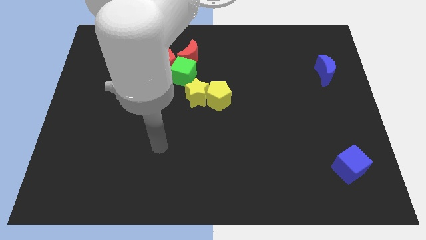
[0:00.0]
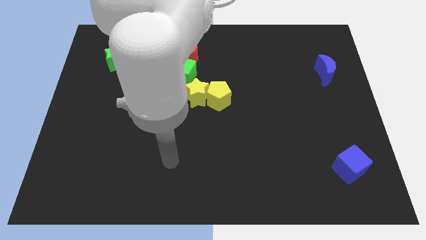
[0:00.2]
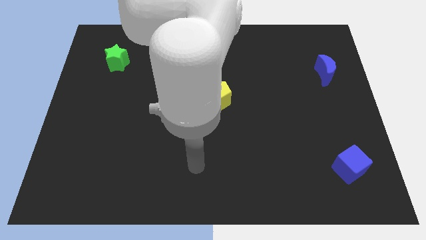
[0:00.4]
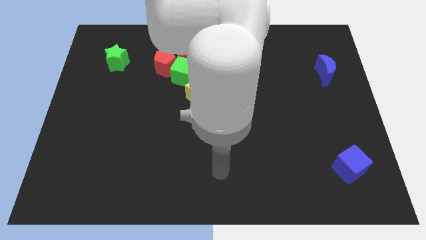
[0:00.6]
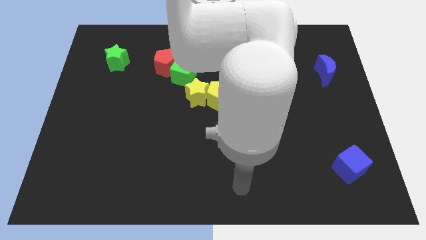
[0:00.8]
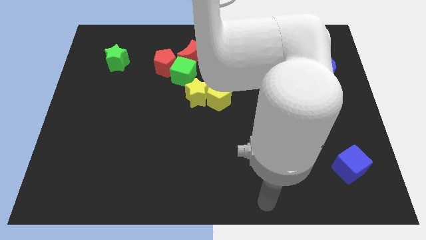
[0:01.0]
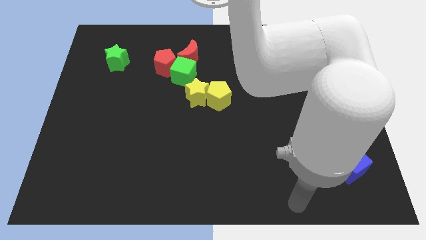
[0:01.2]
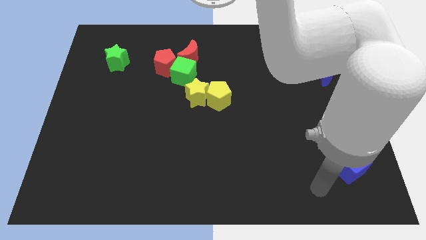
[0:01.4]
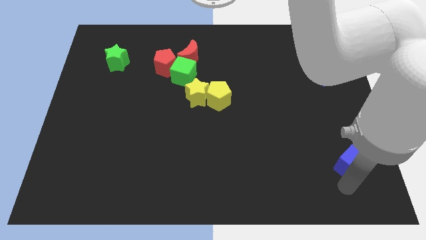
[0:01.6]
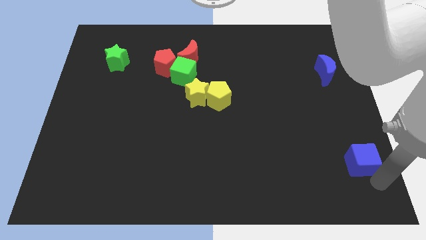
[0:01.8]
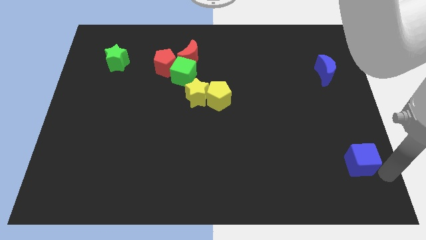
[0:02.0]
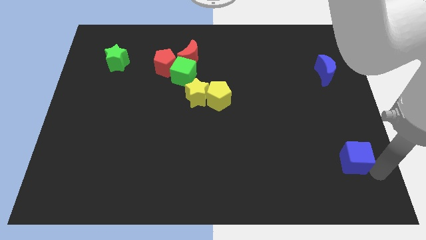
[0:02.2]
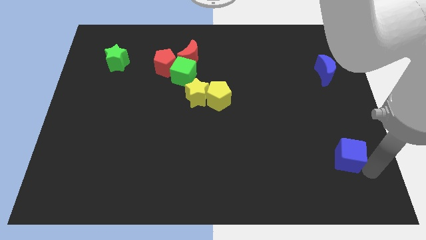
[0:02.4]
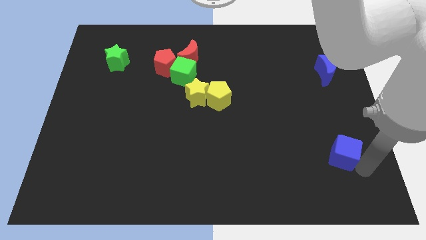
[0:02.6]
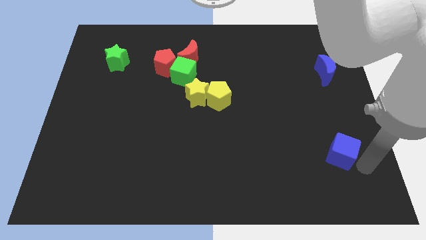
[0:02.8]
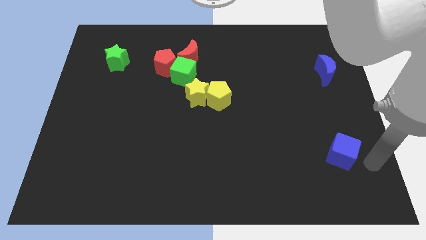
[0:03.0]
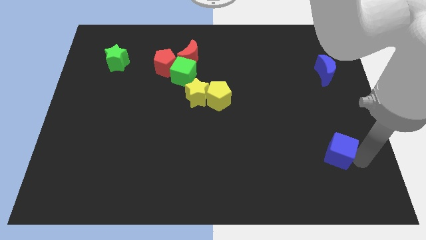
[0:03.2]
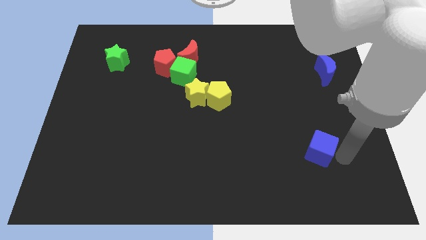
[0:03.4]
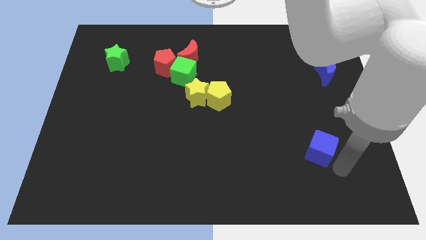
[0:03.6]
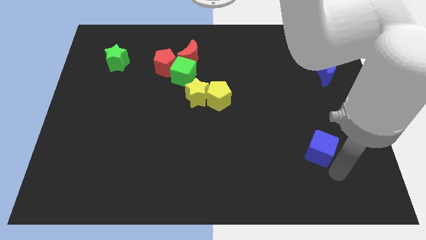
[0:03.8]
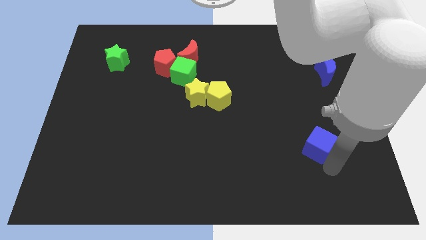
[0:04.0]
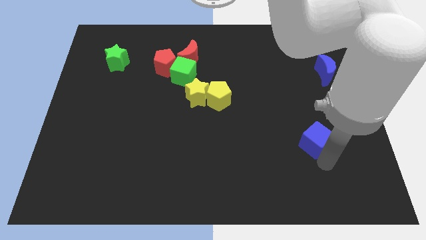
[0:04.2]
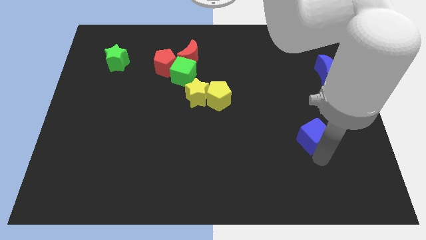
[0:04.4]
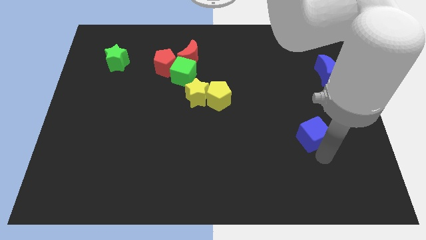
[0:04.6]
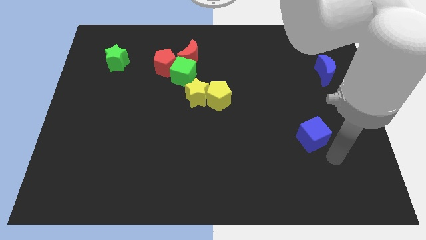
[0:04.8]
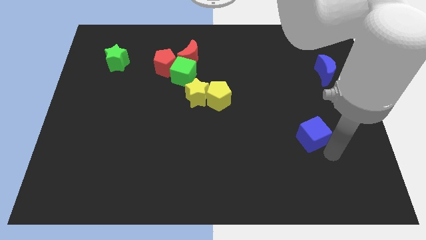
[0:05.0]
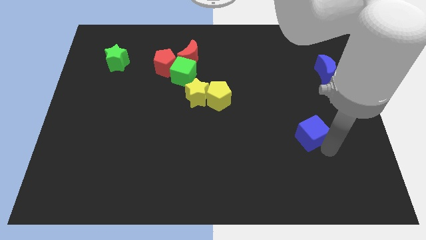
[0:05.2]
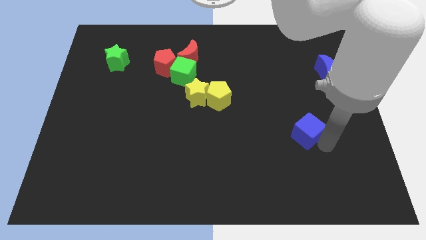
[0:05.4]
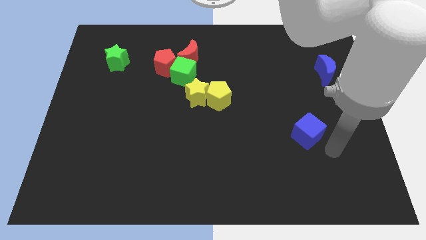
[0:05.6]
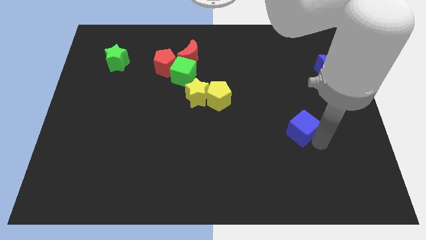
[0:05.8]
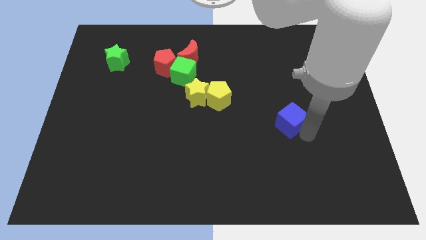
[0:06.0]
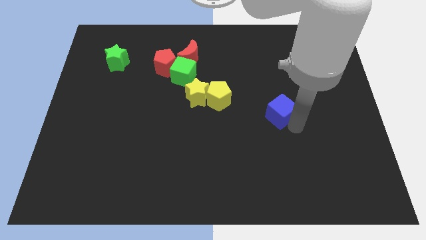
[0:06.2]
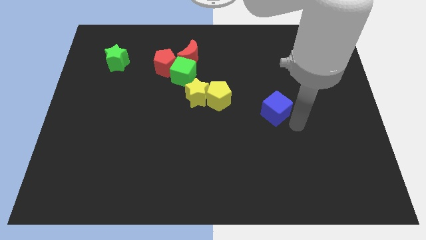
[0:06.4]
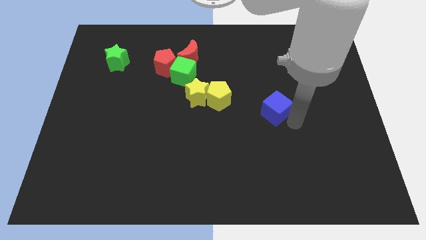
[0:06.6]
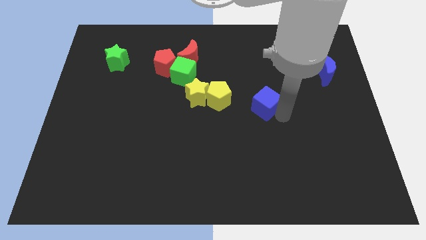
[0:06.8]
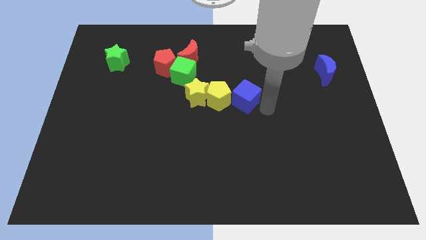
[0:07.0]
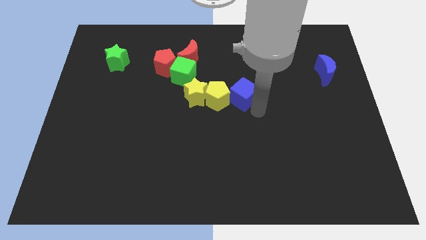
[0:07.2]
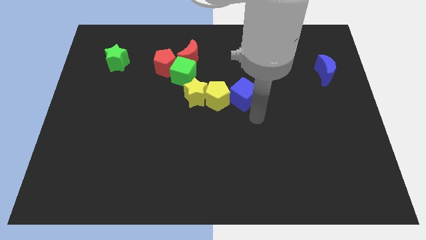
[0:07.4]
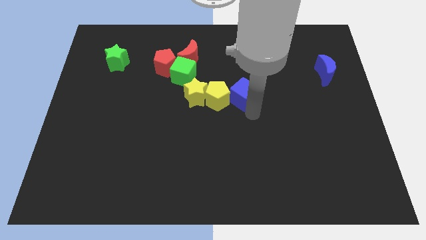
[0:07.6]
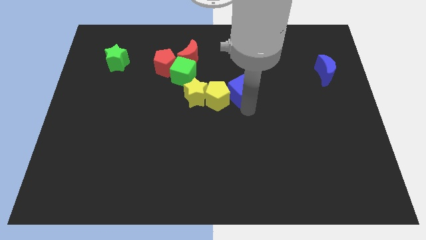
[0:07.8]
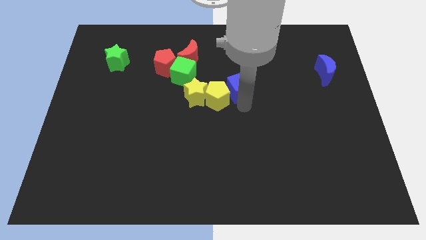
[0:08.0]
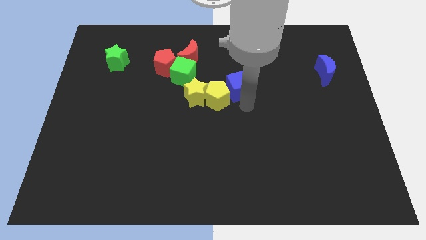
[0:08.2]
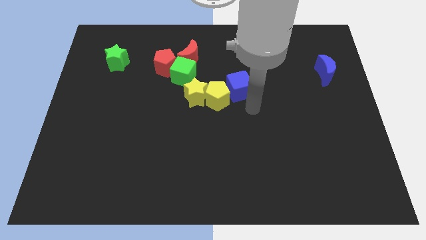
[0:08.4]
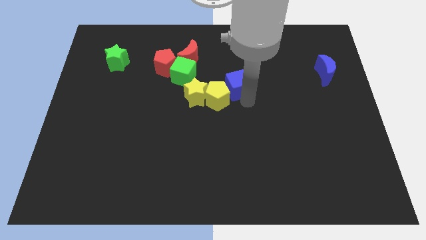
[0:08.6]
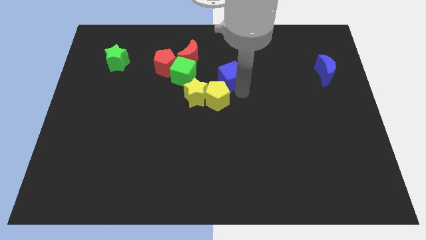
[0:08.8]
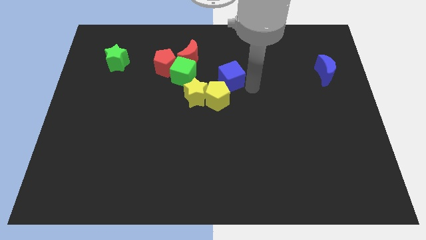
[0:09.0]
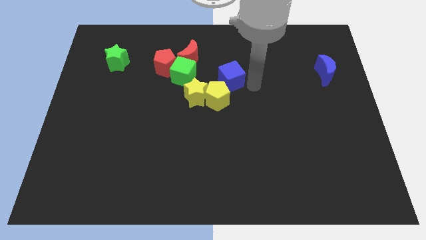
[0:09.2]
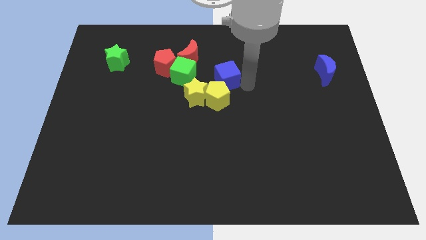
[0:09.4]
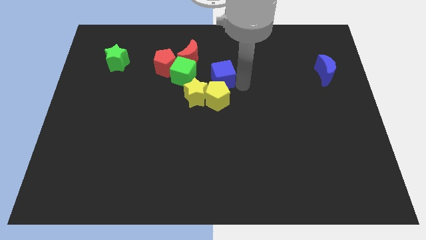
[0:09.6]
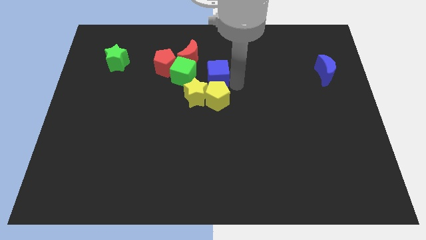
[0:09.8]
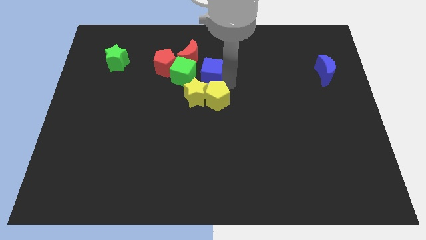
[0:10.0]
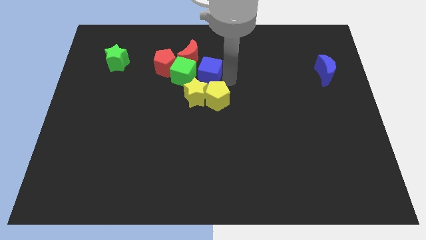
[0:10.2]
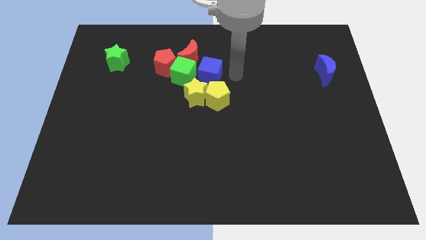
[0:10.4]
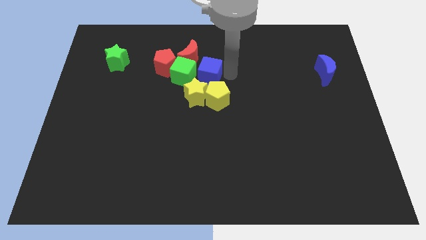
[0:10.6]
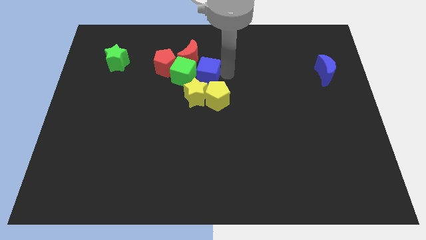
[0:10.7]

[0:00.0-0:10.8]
slide the blue cube towards the green cube

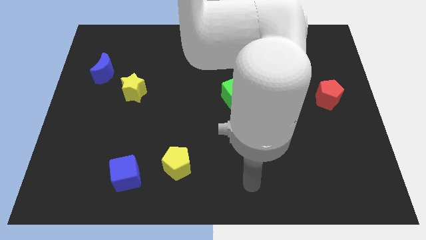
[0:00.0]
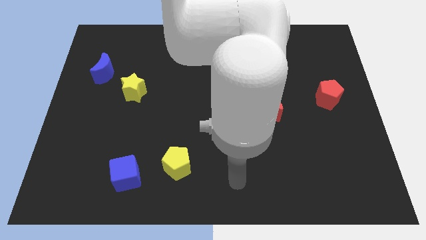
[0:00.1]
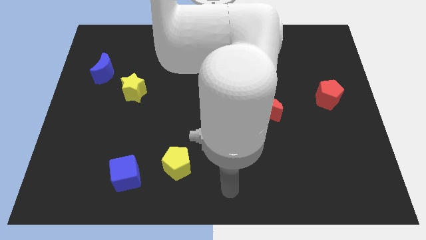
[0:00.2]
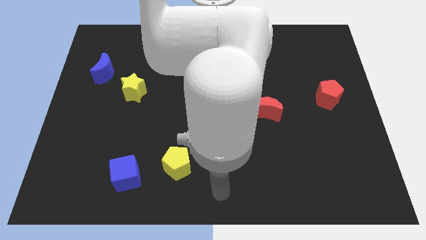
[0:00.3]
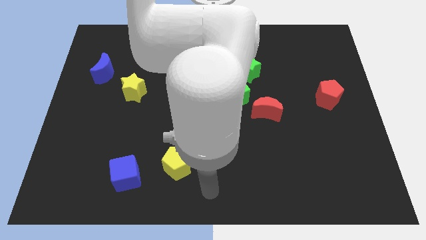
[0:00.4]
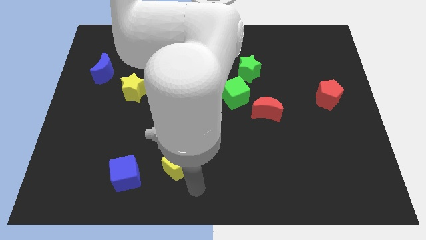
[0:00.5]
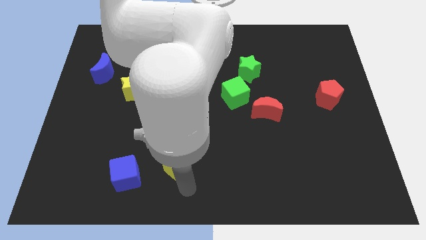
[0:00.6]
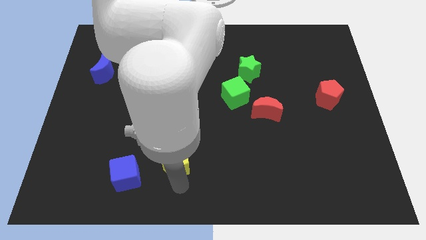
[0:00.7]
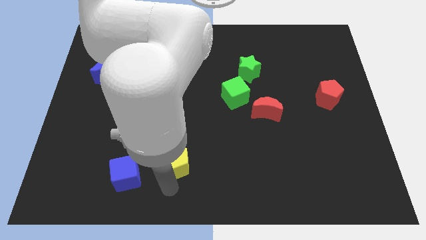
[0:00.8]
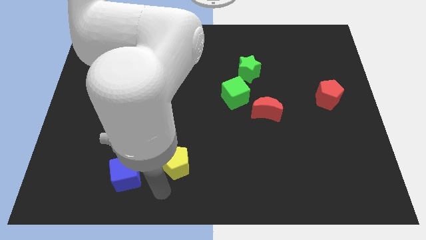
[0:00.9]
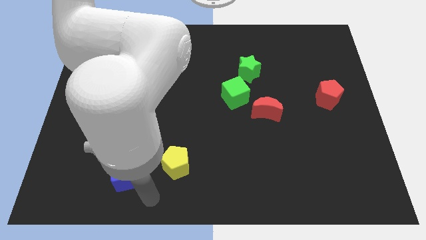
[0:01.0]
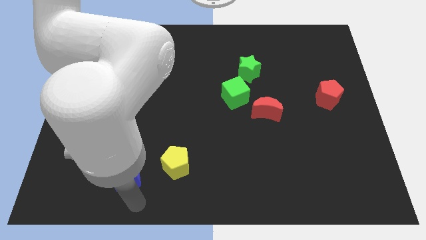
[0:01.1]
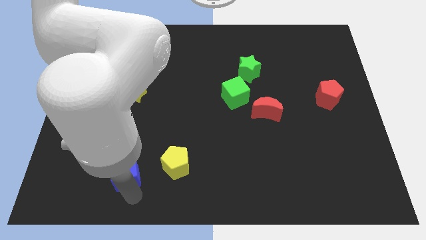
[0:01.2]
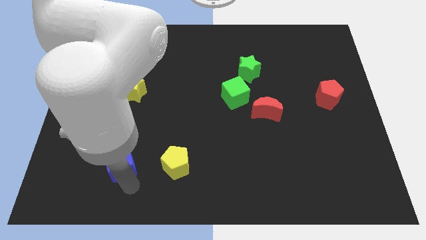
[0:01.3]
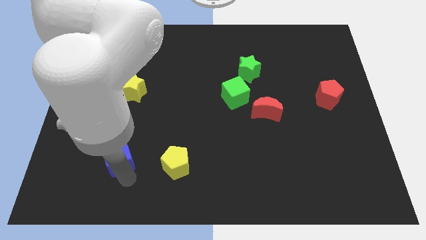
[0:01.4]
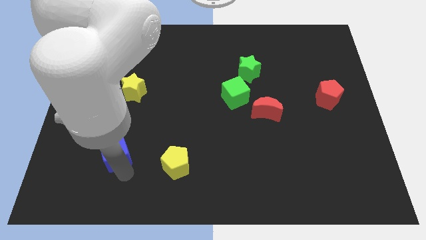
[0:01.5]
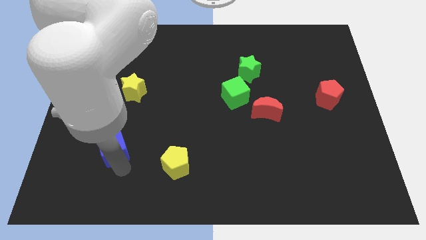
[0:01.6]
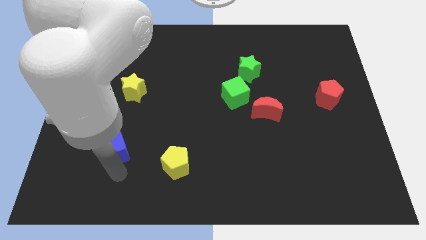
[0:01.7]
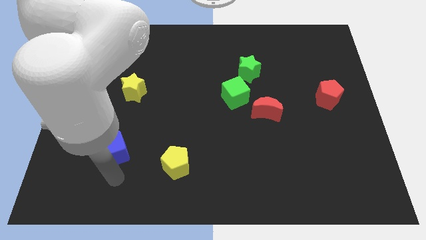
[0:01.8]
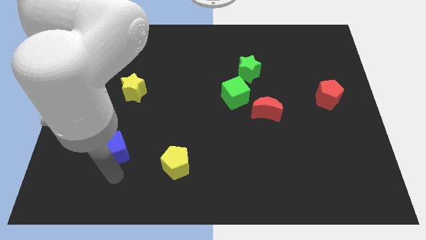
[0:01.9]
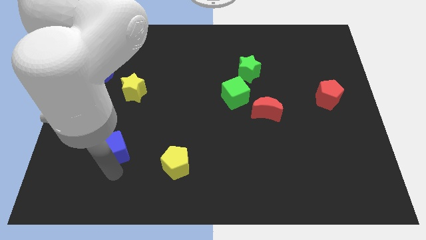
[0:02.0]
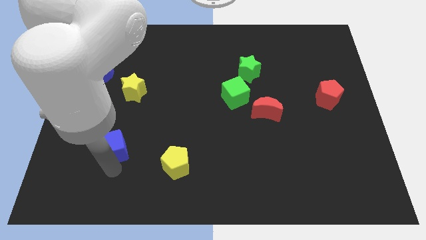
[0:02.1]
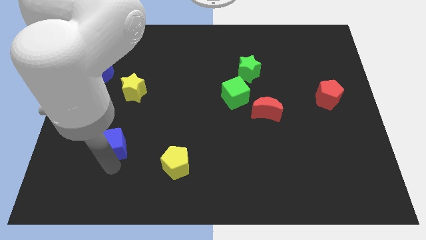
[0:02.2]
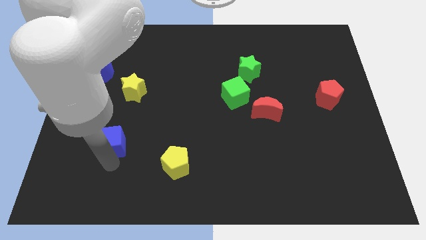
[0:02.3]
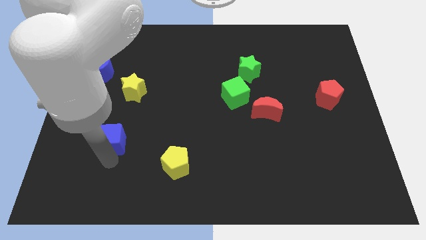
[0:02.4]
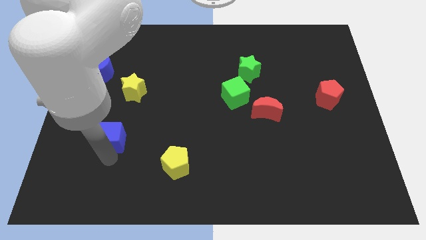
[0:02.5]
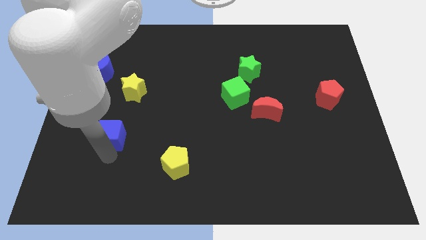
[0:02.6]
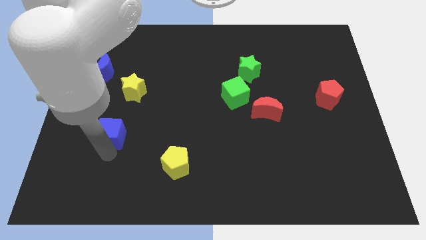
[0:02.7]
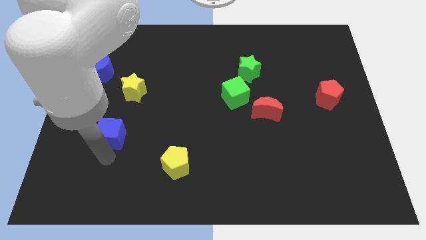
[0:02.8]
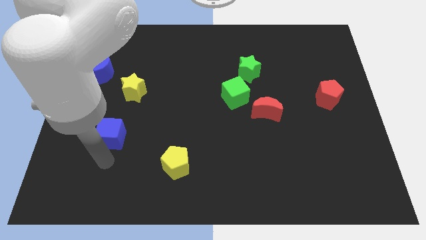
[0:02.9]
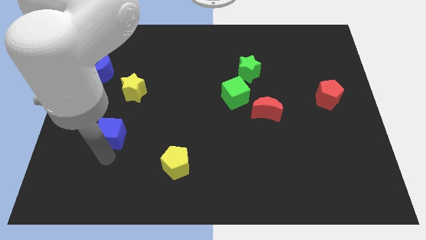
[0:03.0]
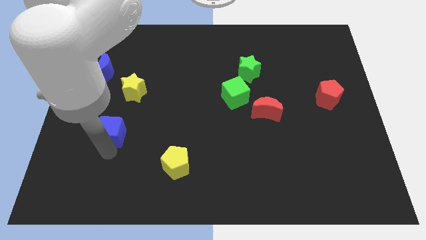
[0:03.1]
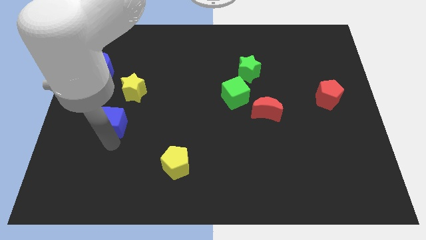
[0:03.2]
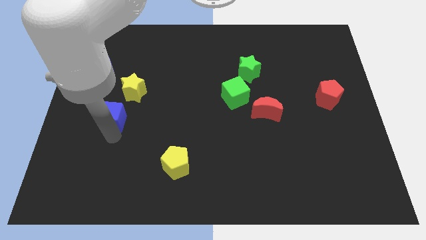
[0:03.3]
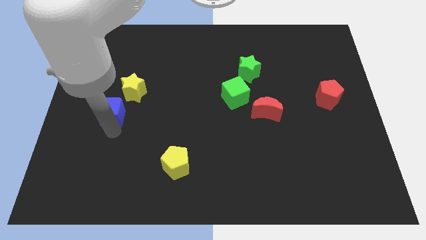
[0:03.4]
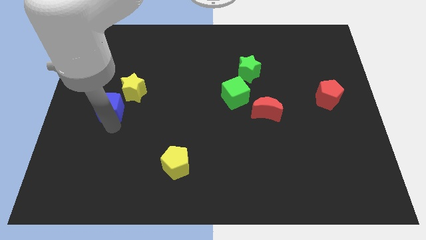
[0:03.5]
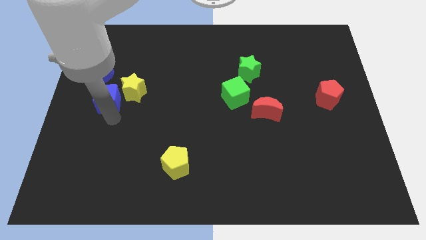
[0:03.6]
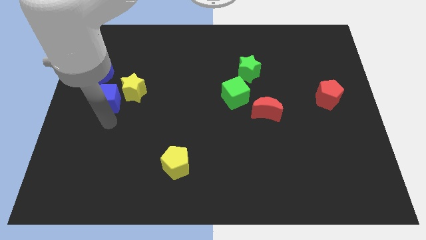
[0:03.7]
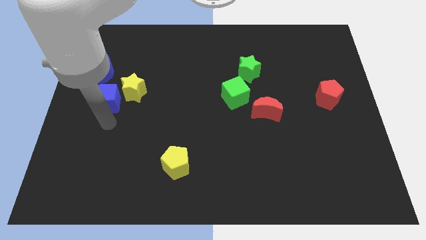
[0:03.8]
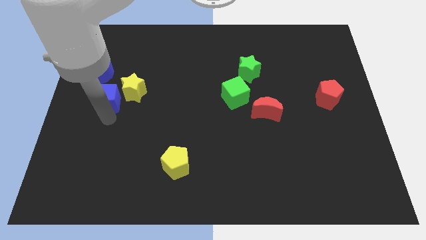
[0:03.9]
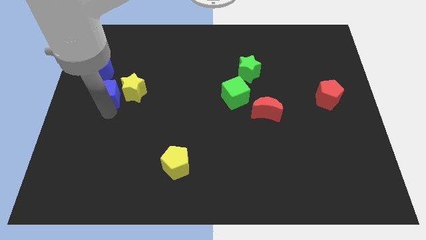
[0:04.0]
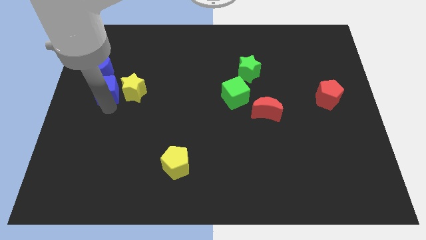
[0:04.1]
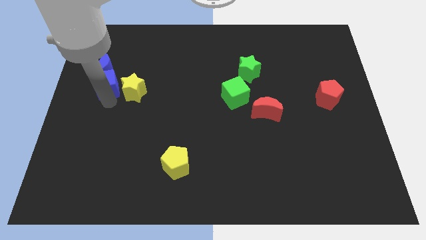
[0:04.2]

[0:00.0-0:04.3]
slide the blue cube close to the blue moon
